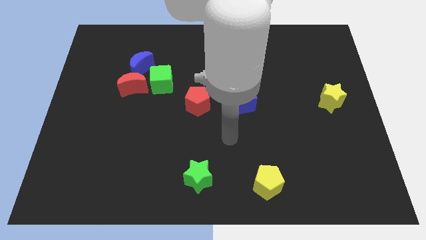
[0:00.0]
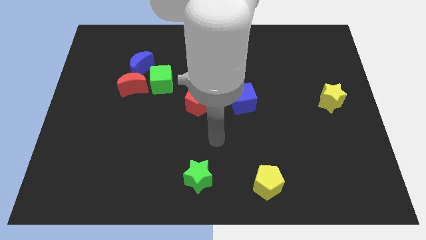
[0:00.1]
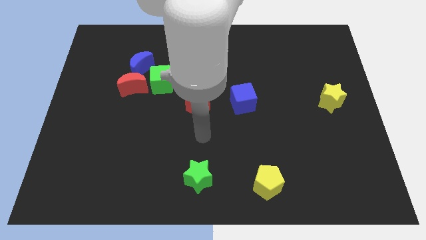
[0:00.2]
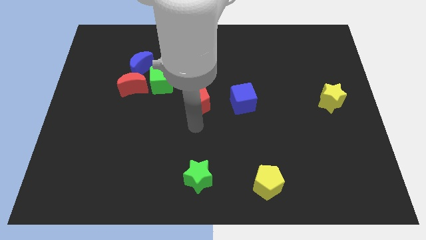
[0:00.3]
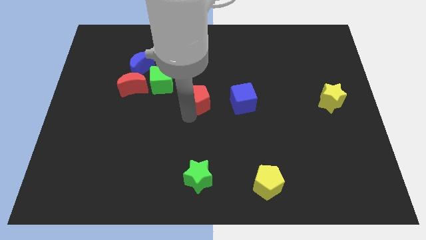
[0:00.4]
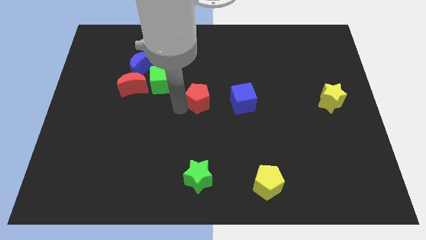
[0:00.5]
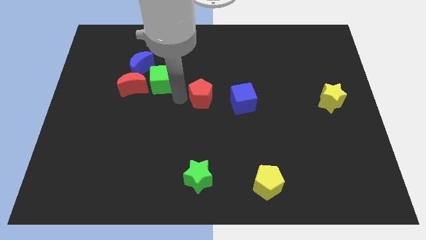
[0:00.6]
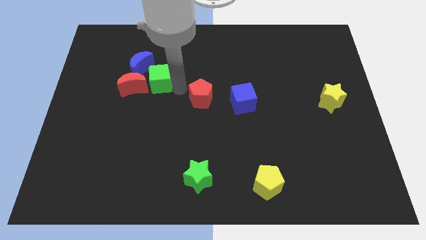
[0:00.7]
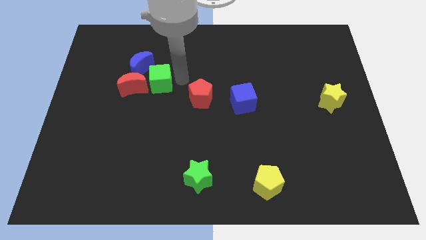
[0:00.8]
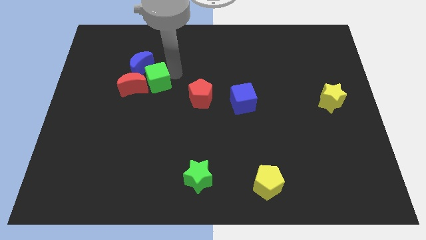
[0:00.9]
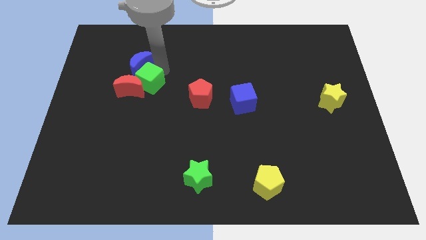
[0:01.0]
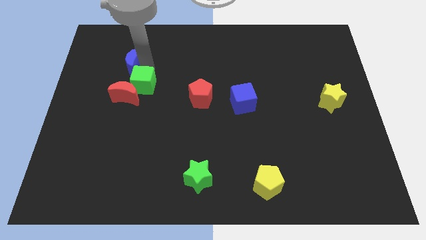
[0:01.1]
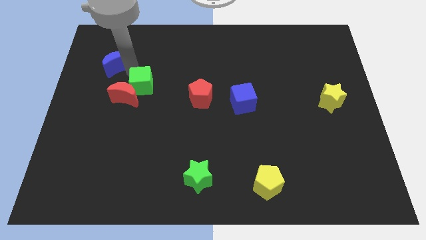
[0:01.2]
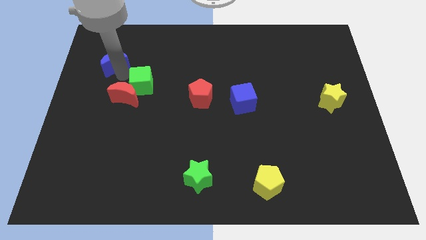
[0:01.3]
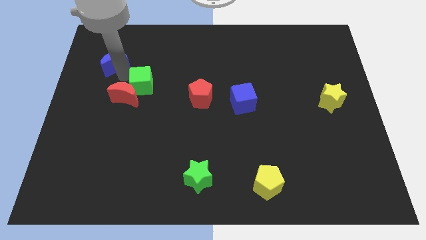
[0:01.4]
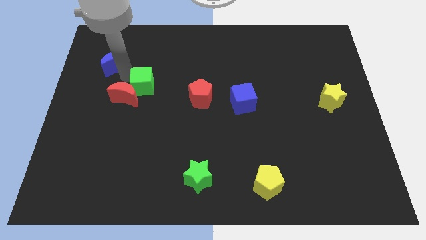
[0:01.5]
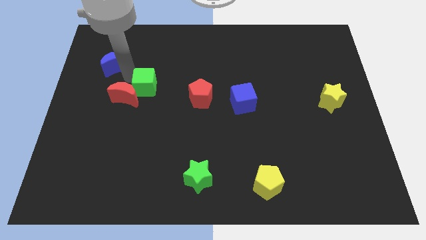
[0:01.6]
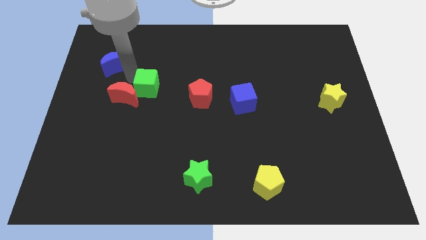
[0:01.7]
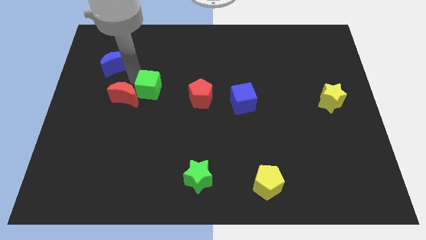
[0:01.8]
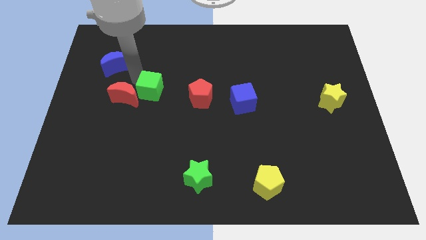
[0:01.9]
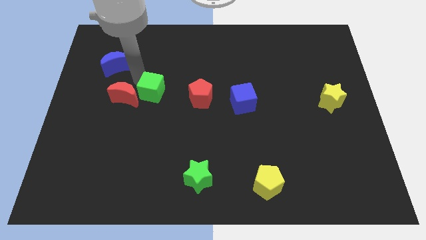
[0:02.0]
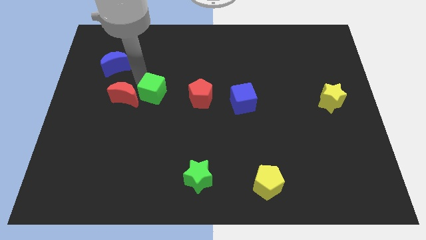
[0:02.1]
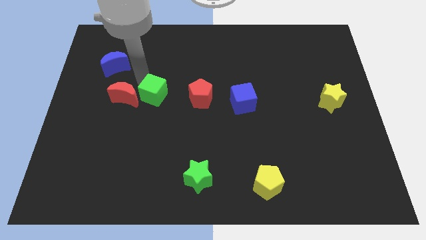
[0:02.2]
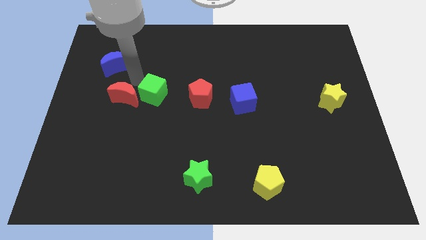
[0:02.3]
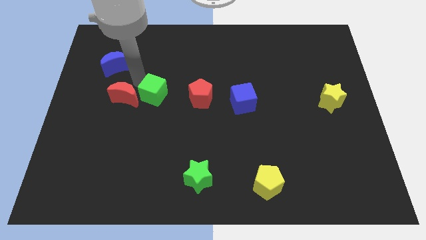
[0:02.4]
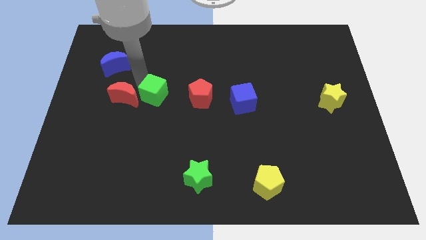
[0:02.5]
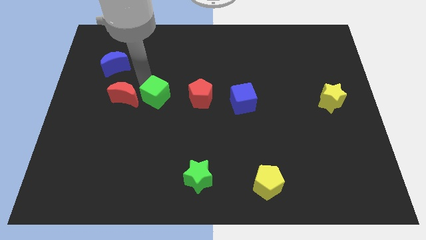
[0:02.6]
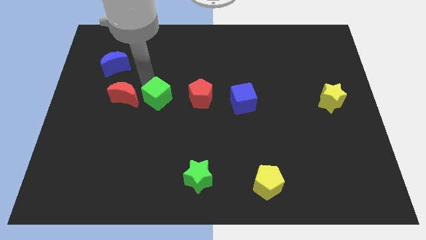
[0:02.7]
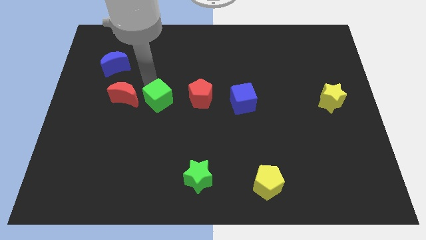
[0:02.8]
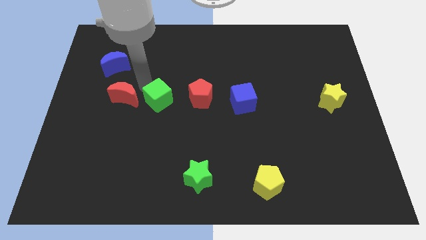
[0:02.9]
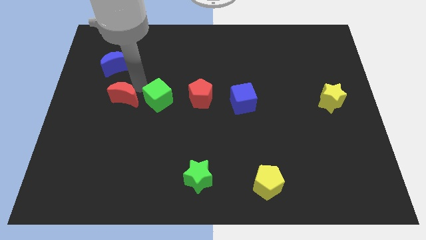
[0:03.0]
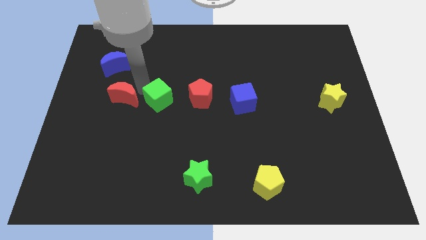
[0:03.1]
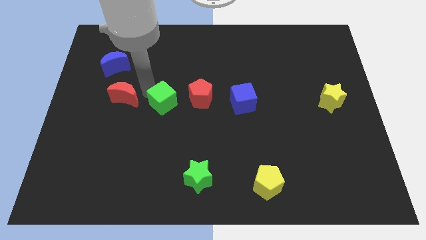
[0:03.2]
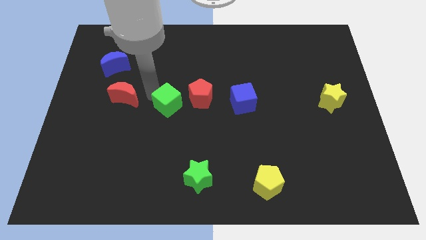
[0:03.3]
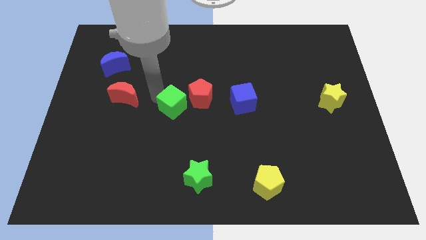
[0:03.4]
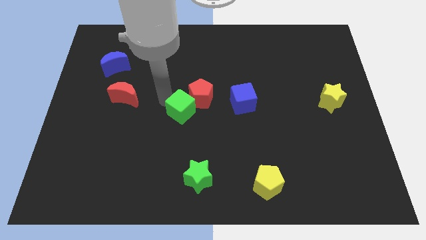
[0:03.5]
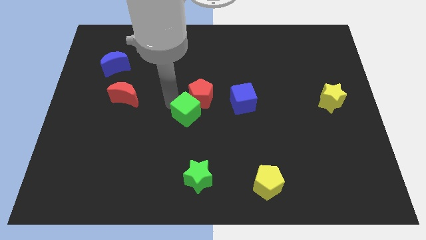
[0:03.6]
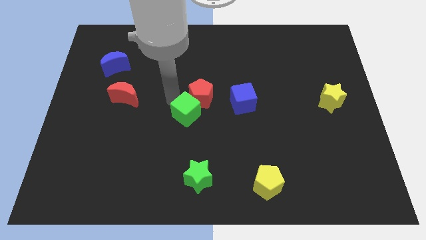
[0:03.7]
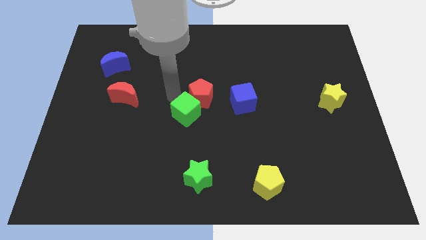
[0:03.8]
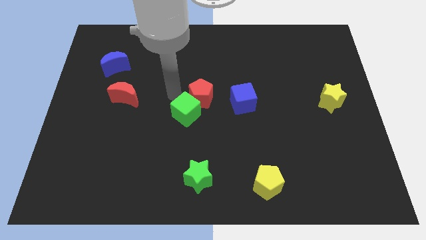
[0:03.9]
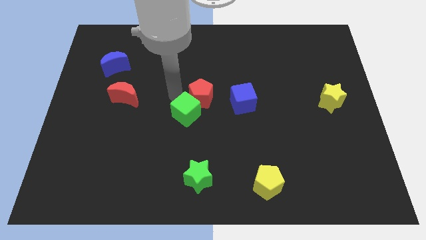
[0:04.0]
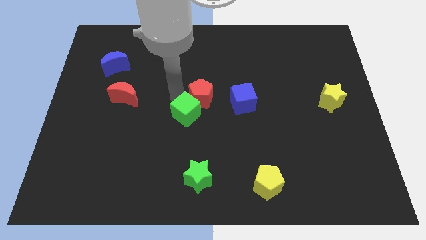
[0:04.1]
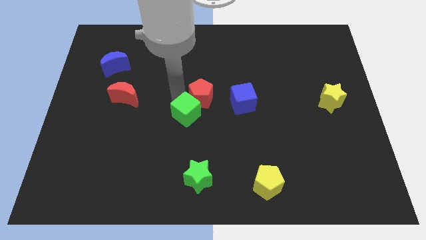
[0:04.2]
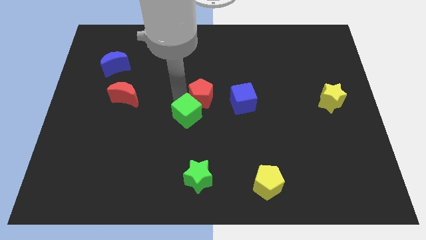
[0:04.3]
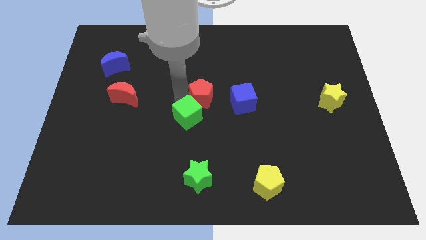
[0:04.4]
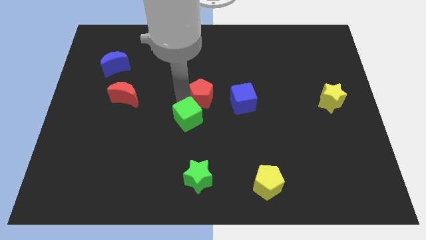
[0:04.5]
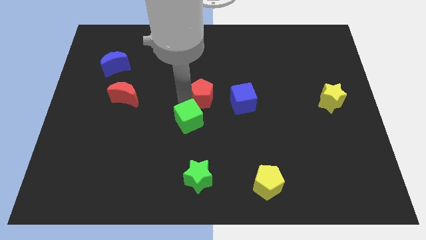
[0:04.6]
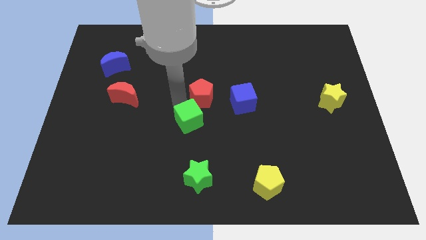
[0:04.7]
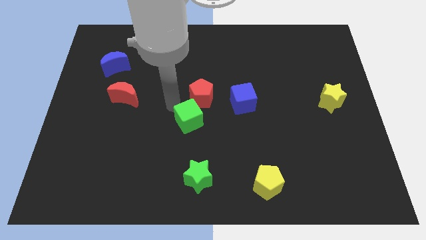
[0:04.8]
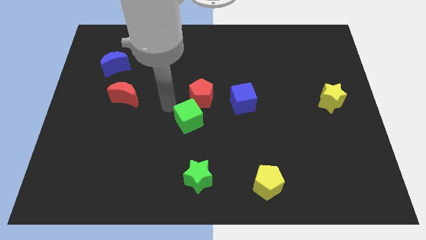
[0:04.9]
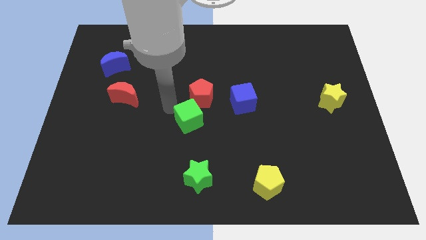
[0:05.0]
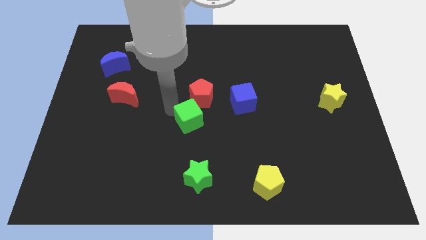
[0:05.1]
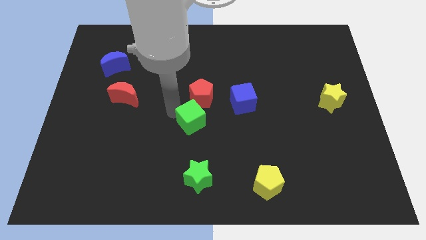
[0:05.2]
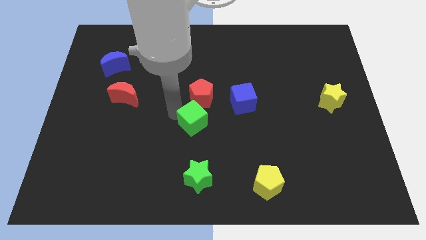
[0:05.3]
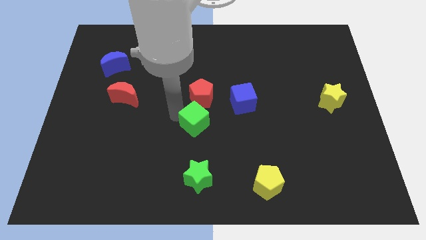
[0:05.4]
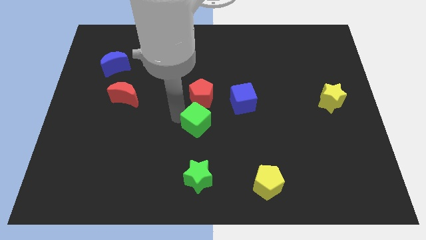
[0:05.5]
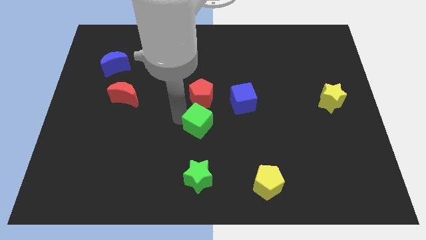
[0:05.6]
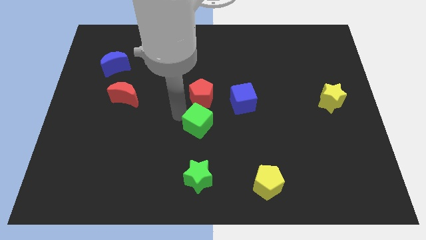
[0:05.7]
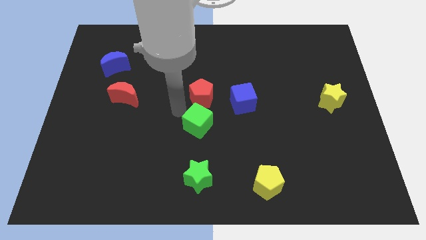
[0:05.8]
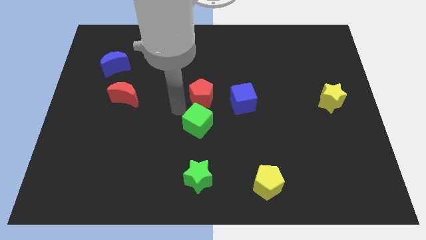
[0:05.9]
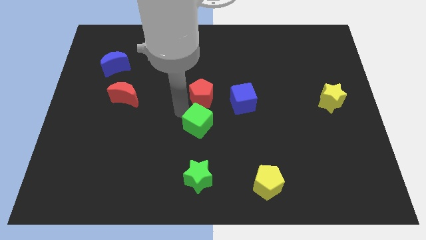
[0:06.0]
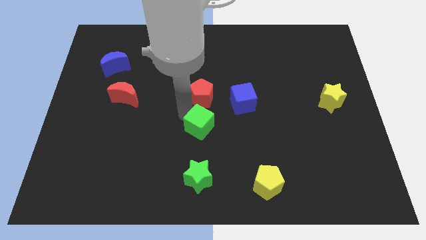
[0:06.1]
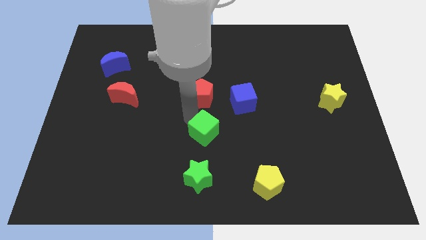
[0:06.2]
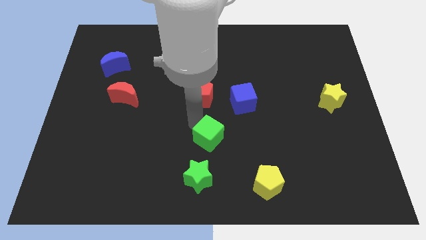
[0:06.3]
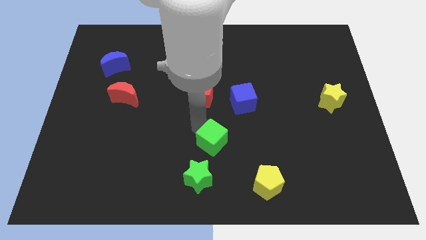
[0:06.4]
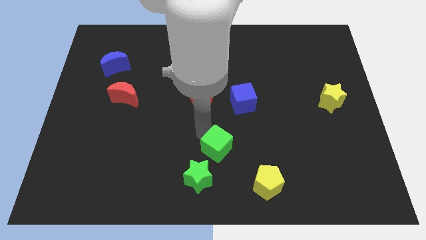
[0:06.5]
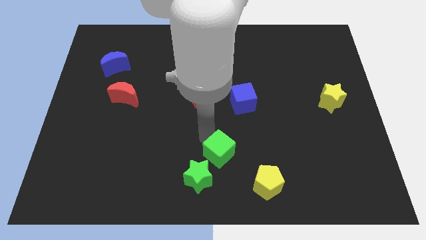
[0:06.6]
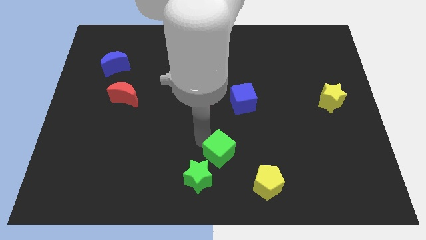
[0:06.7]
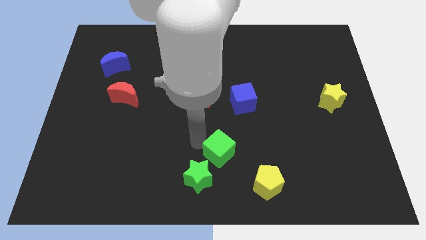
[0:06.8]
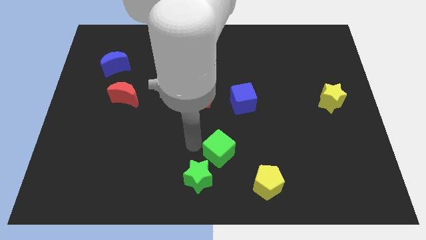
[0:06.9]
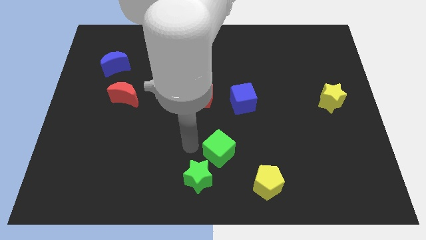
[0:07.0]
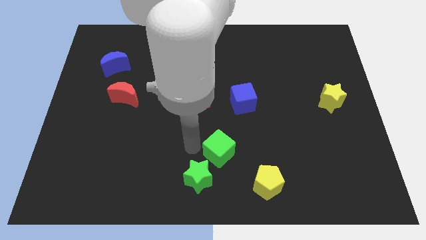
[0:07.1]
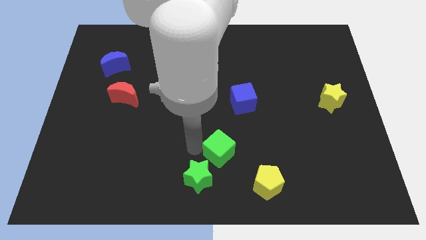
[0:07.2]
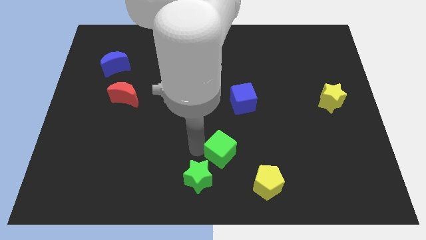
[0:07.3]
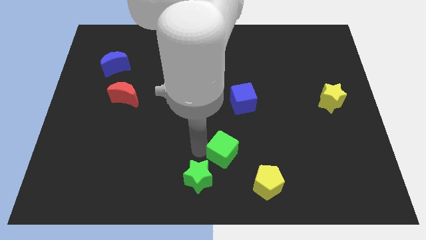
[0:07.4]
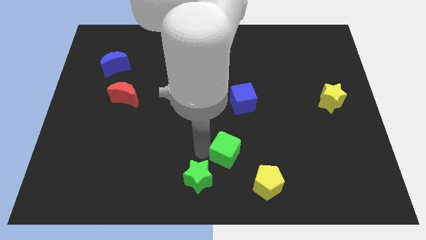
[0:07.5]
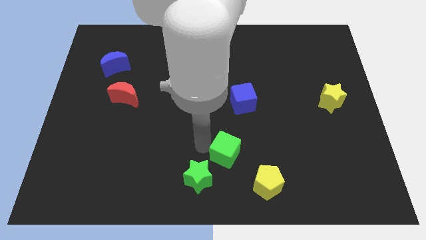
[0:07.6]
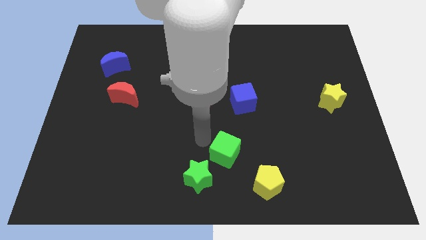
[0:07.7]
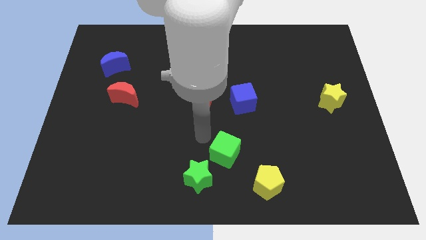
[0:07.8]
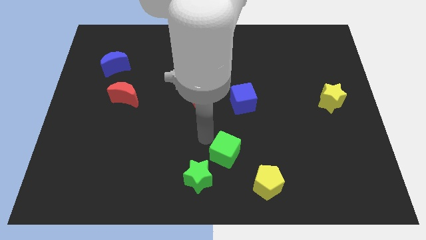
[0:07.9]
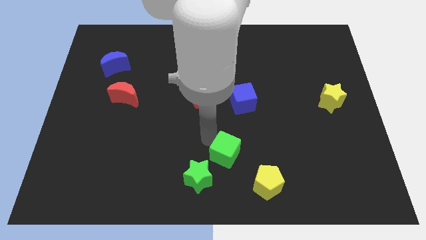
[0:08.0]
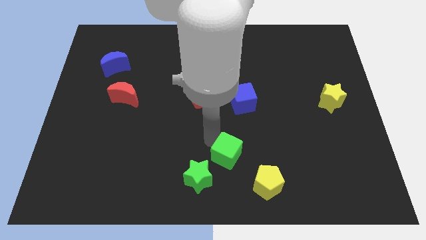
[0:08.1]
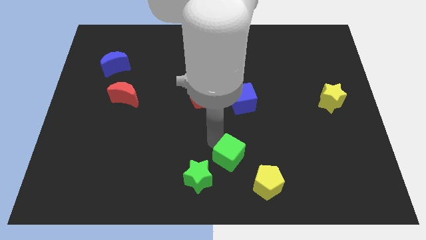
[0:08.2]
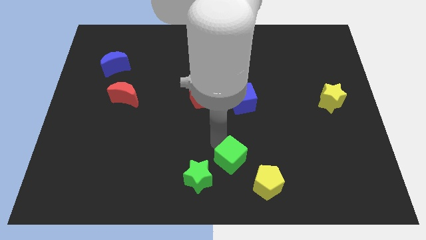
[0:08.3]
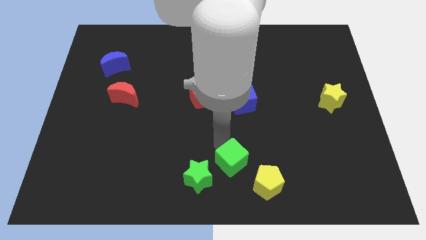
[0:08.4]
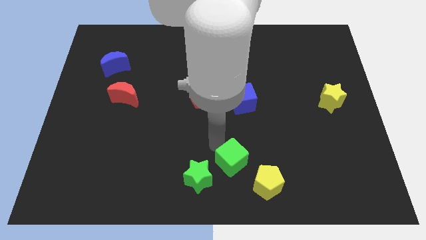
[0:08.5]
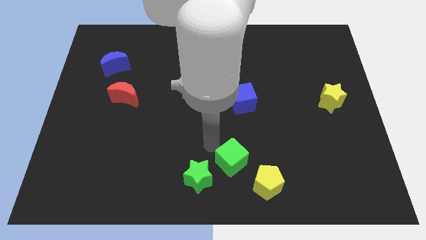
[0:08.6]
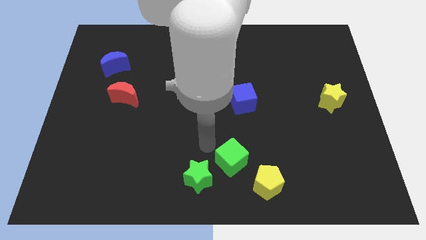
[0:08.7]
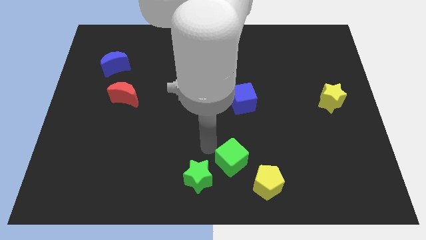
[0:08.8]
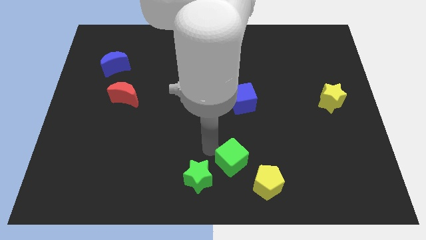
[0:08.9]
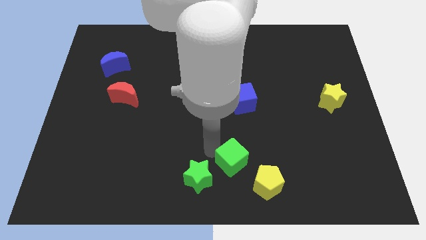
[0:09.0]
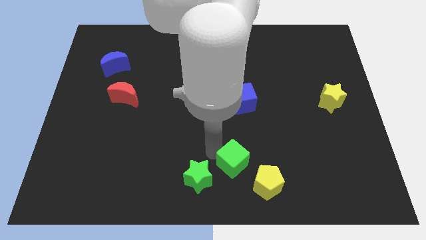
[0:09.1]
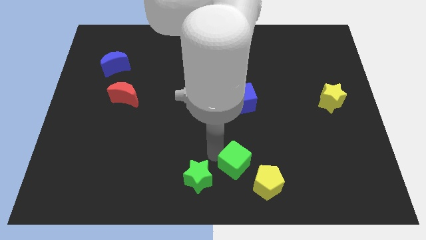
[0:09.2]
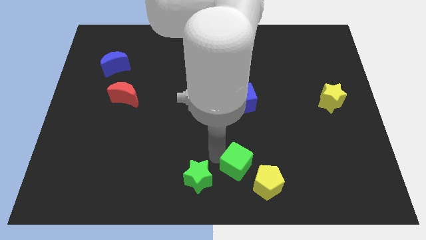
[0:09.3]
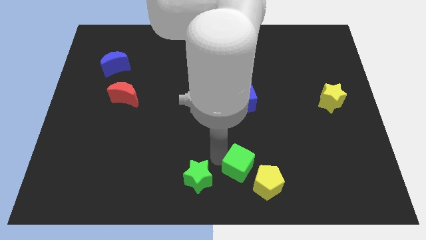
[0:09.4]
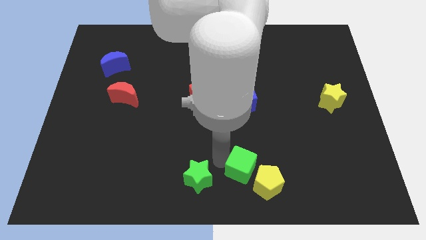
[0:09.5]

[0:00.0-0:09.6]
slide the green cube next to the yellow pentagon
